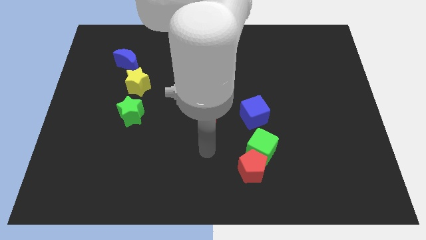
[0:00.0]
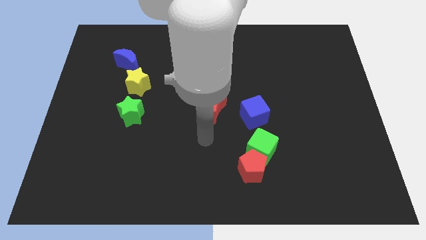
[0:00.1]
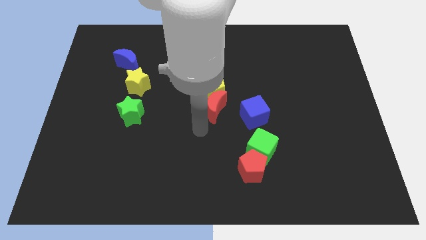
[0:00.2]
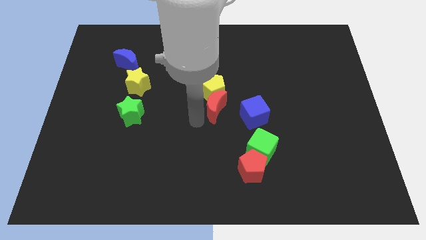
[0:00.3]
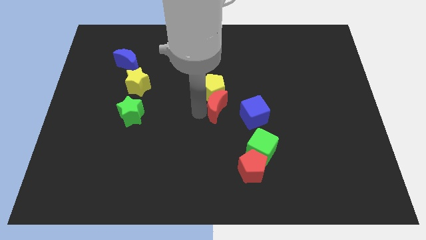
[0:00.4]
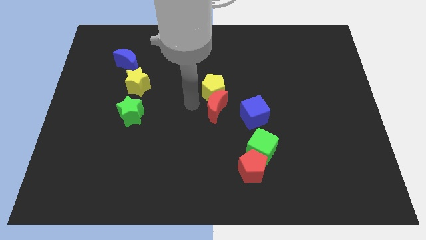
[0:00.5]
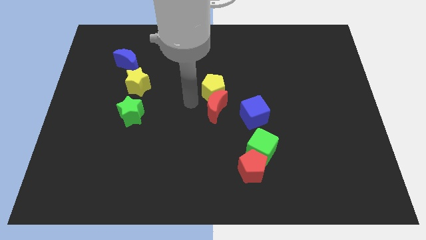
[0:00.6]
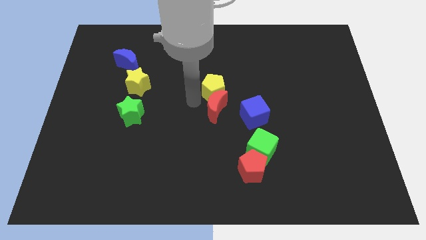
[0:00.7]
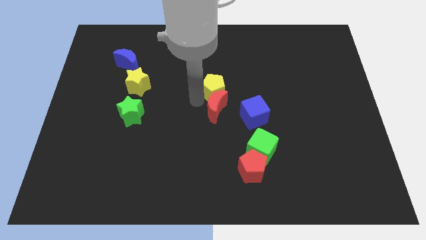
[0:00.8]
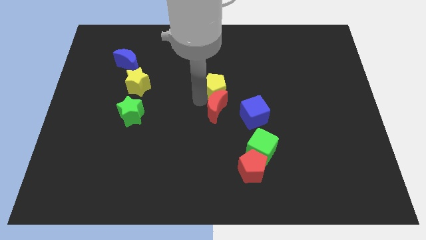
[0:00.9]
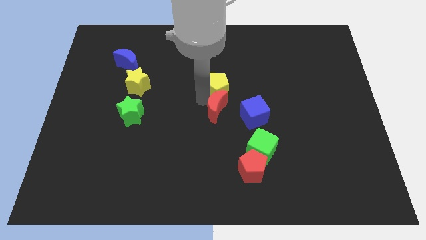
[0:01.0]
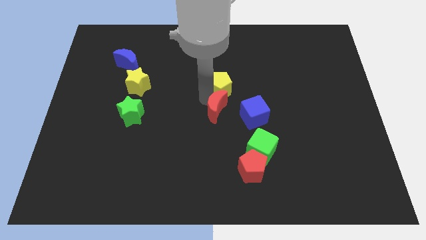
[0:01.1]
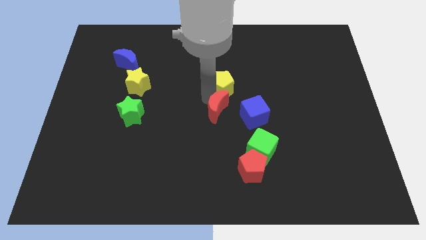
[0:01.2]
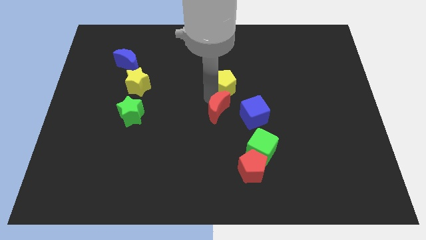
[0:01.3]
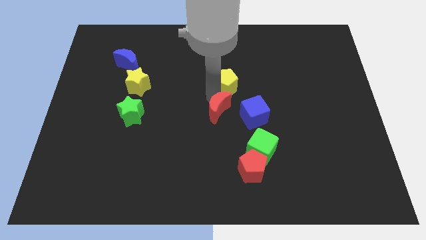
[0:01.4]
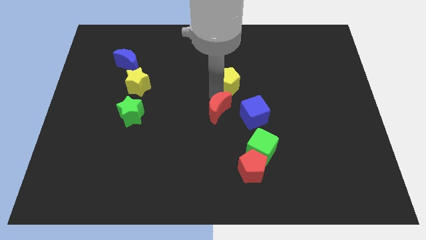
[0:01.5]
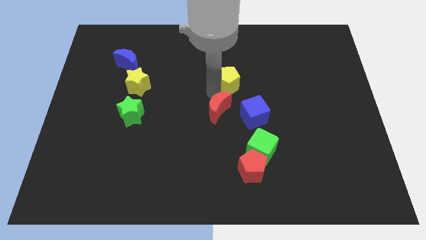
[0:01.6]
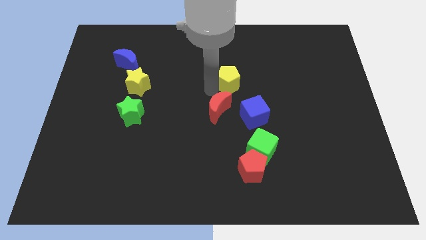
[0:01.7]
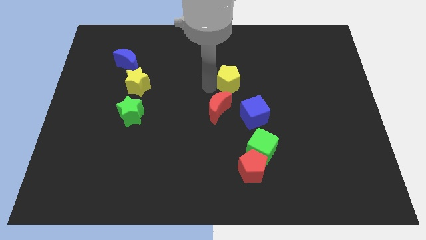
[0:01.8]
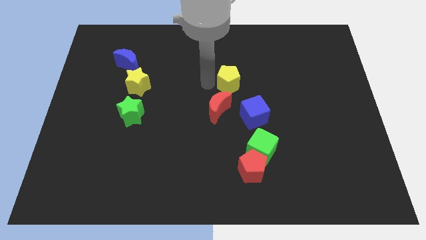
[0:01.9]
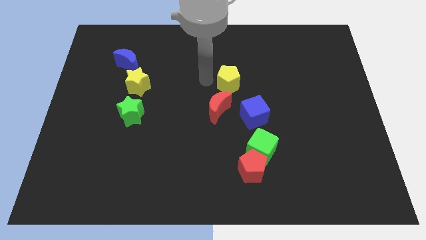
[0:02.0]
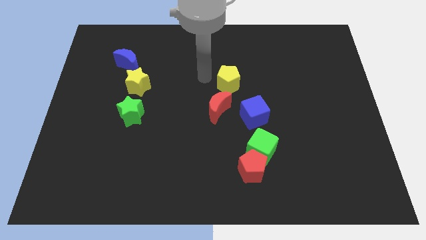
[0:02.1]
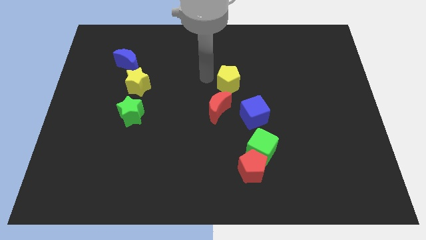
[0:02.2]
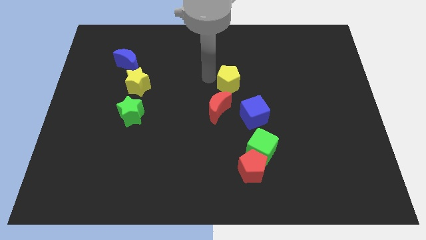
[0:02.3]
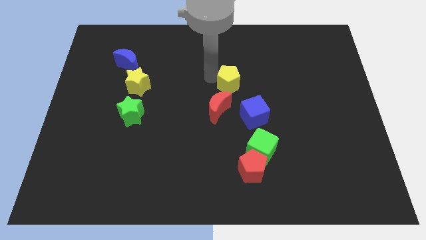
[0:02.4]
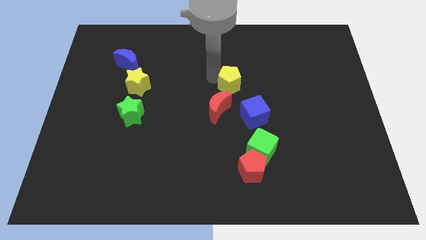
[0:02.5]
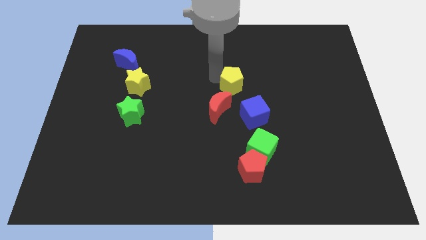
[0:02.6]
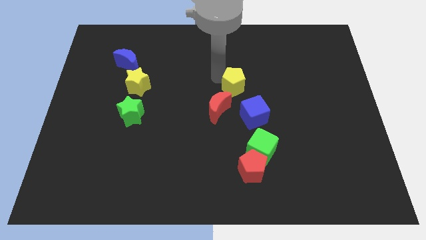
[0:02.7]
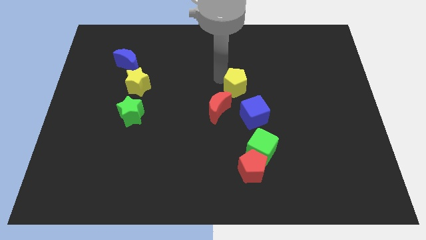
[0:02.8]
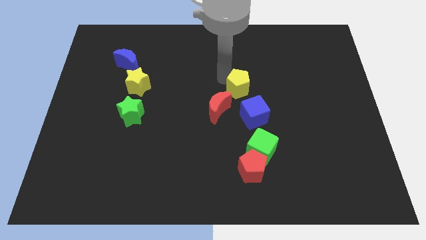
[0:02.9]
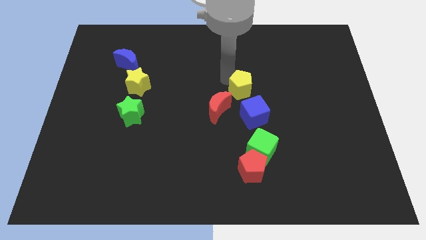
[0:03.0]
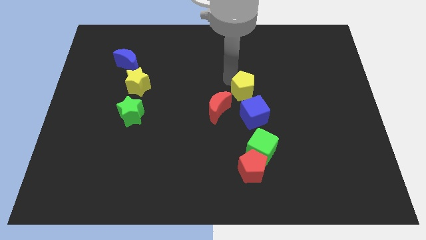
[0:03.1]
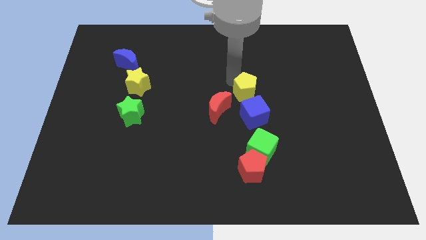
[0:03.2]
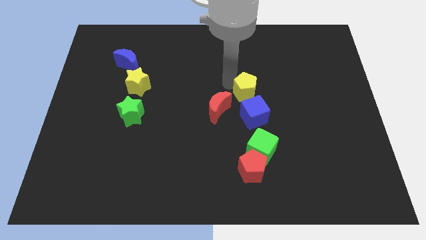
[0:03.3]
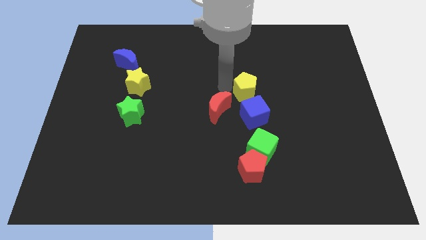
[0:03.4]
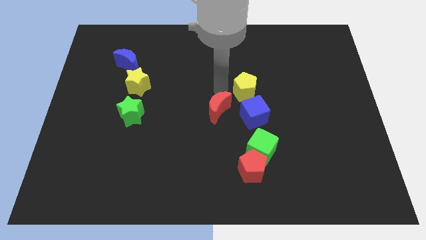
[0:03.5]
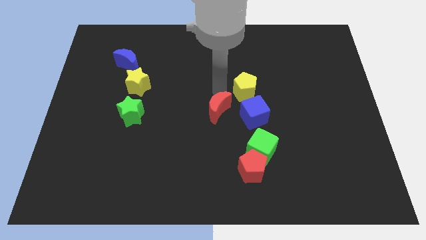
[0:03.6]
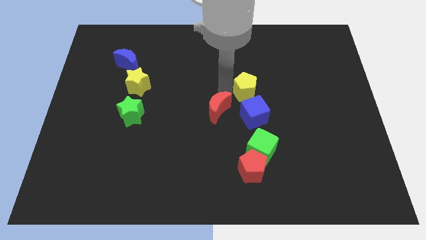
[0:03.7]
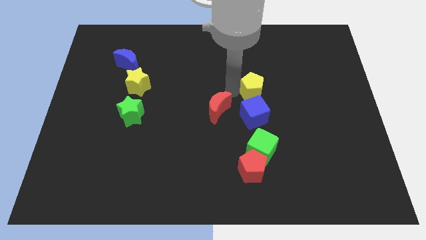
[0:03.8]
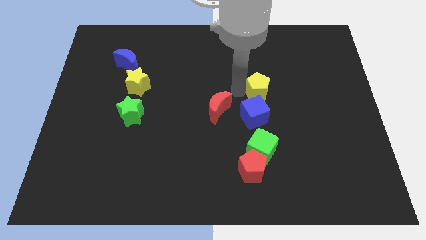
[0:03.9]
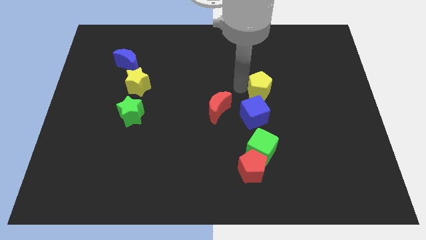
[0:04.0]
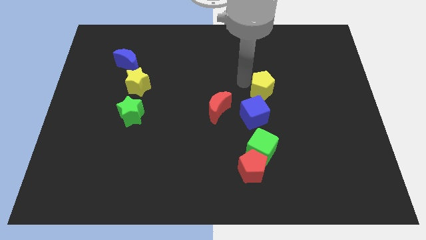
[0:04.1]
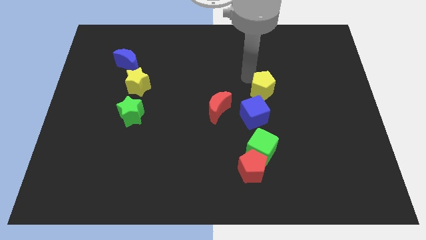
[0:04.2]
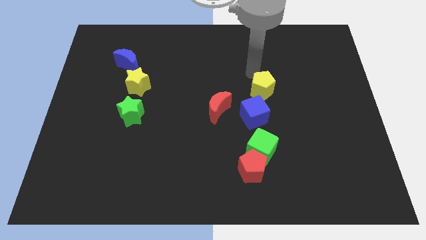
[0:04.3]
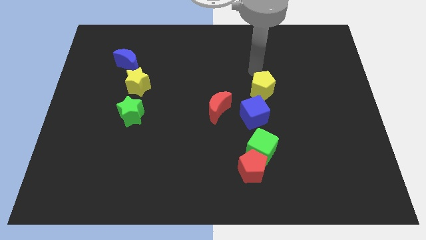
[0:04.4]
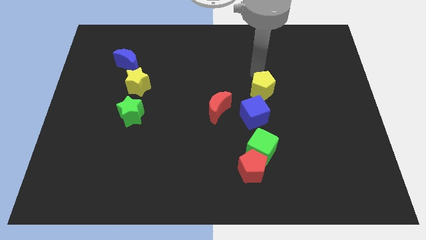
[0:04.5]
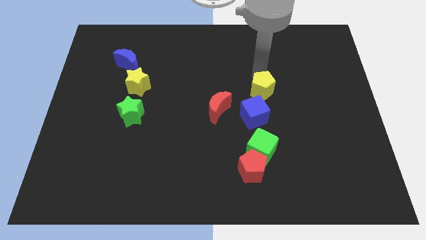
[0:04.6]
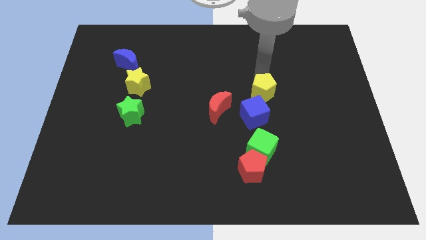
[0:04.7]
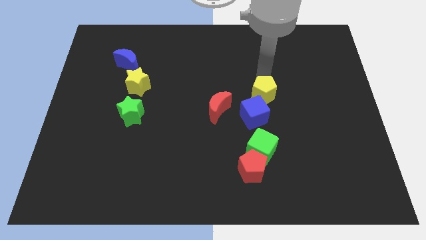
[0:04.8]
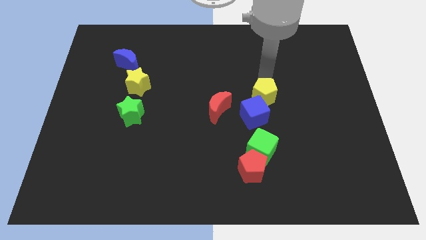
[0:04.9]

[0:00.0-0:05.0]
slightly push the yellow pentagon diagonally downwards and right

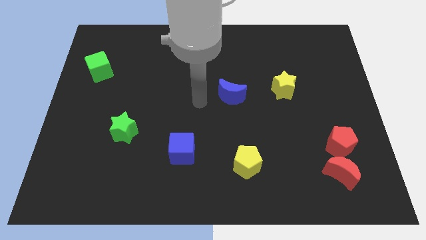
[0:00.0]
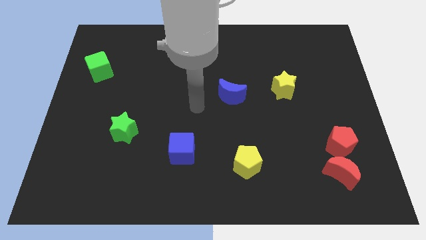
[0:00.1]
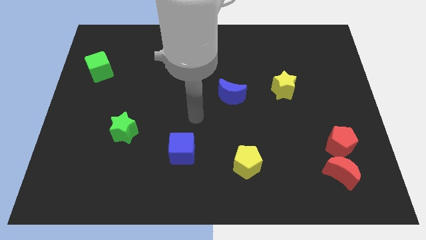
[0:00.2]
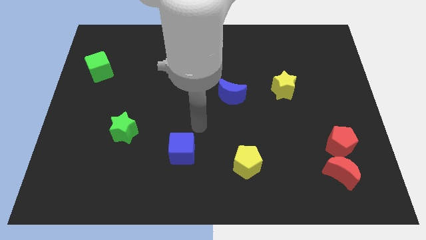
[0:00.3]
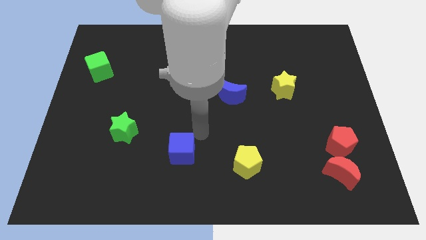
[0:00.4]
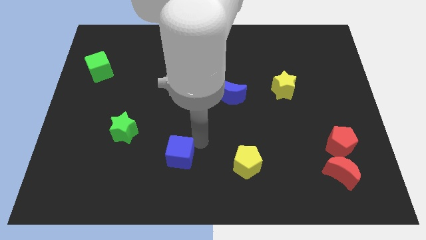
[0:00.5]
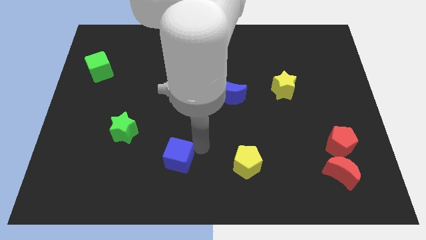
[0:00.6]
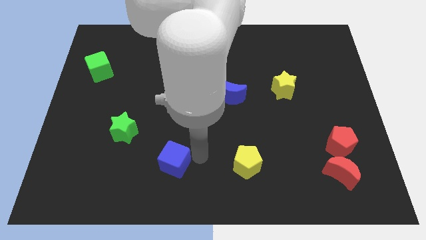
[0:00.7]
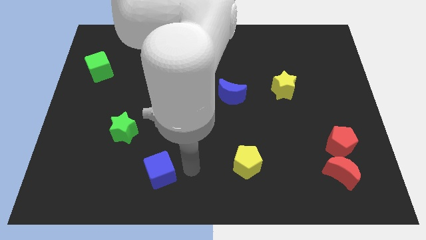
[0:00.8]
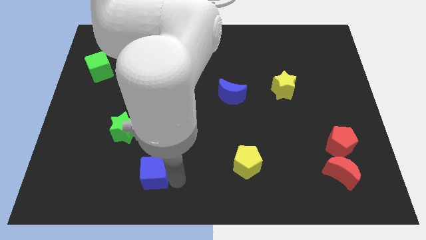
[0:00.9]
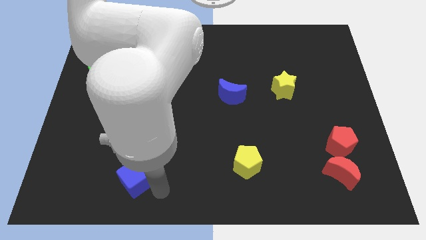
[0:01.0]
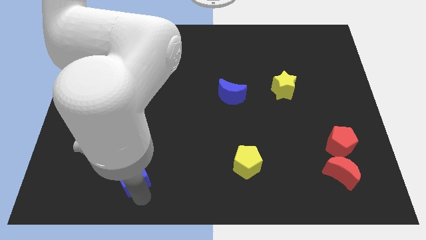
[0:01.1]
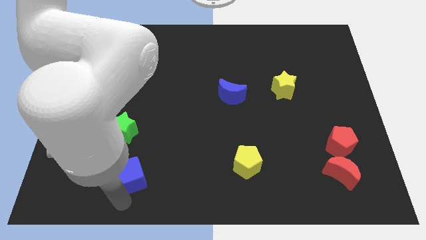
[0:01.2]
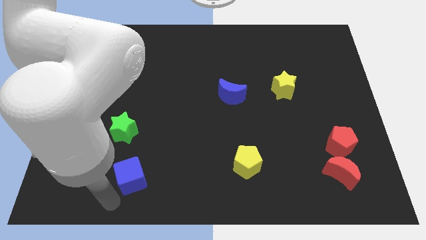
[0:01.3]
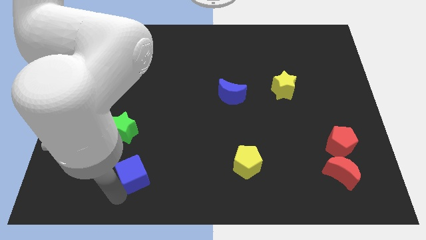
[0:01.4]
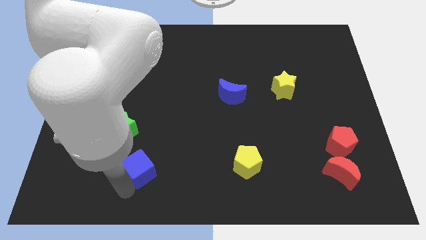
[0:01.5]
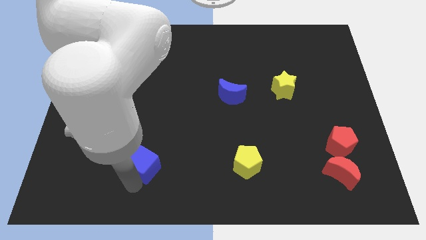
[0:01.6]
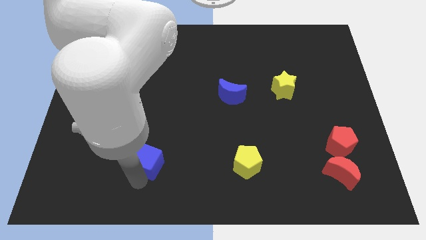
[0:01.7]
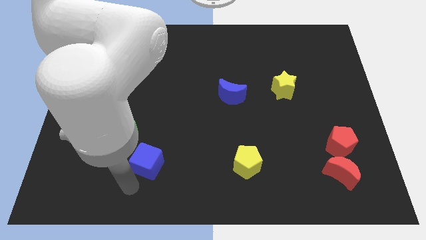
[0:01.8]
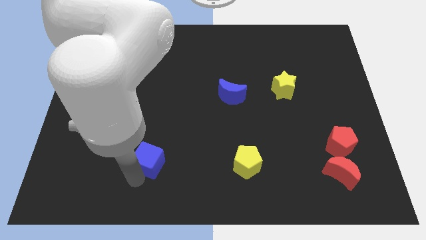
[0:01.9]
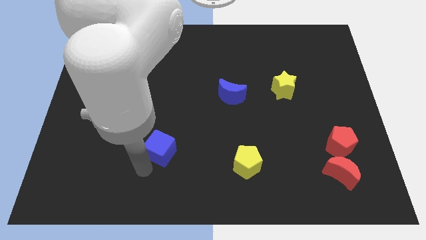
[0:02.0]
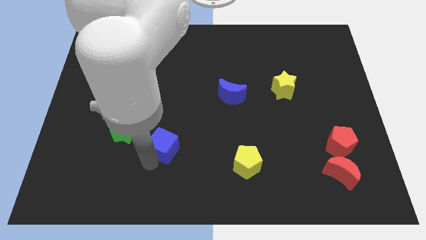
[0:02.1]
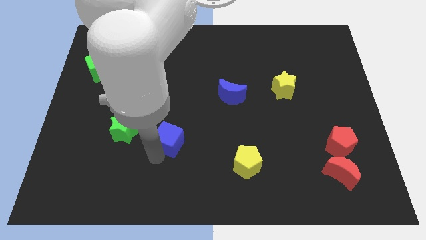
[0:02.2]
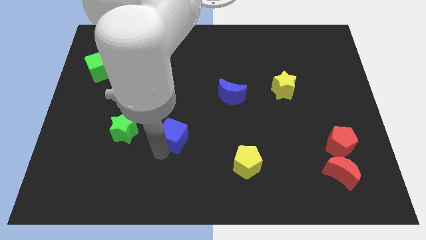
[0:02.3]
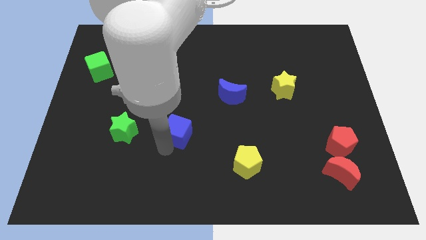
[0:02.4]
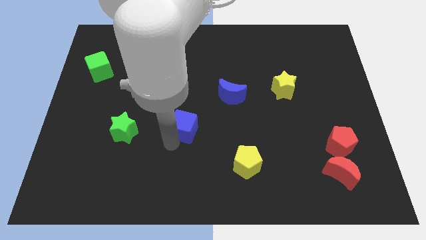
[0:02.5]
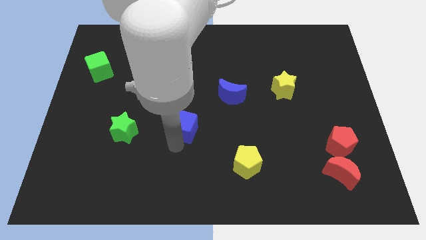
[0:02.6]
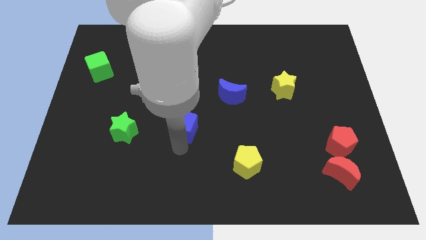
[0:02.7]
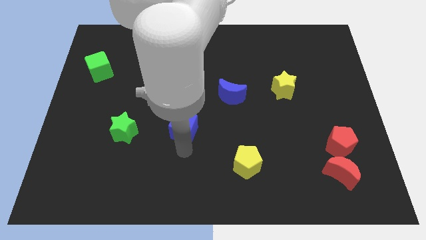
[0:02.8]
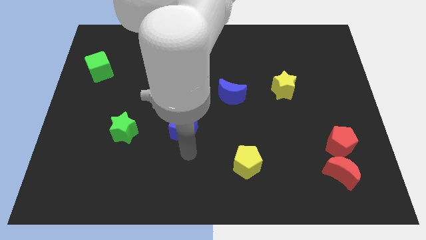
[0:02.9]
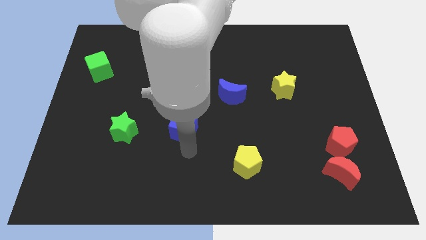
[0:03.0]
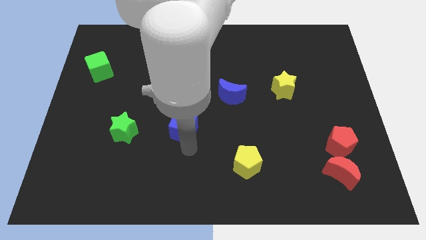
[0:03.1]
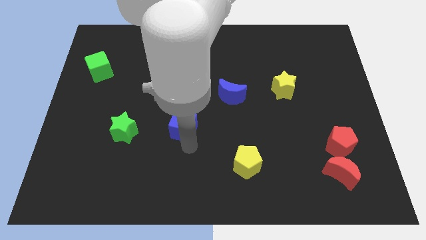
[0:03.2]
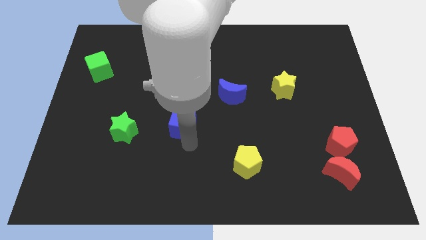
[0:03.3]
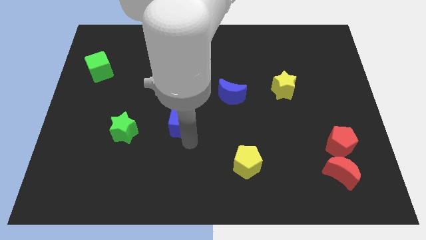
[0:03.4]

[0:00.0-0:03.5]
slightly push the blue cube upwards
